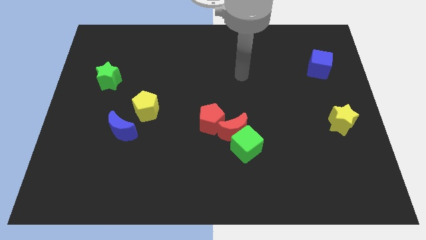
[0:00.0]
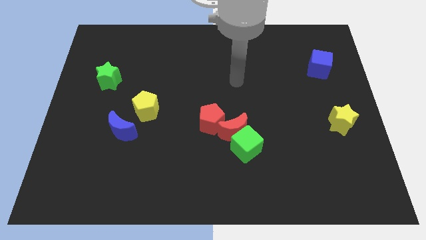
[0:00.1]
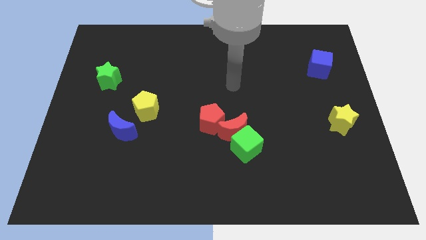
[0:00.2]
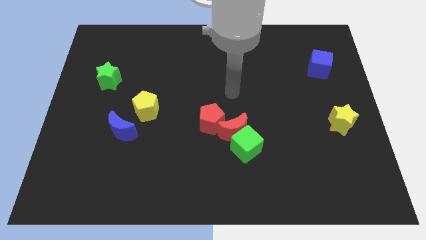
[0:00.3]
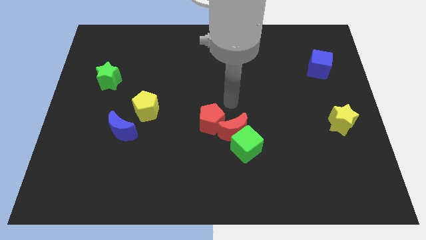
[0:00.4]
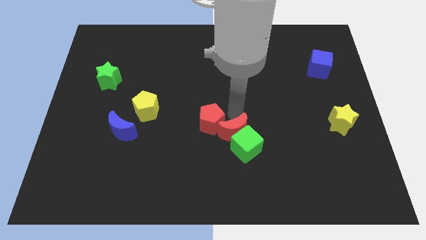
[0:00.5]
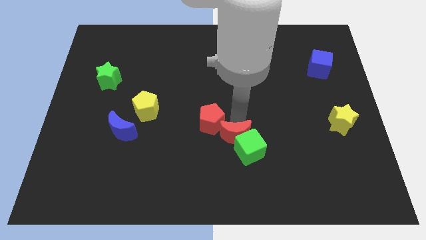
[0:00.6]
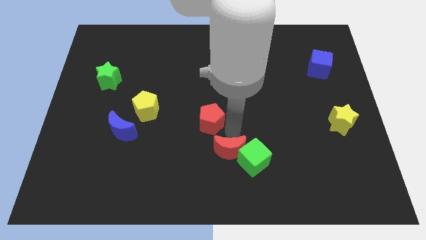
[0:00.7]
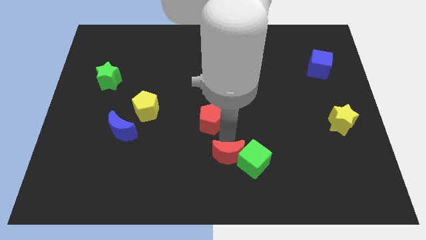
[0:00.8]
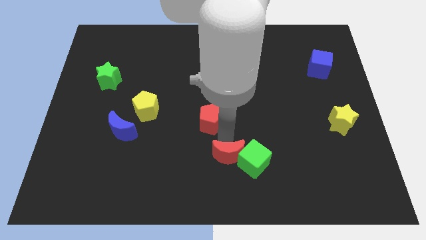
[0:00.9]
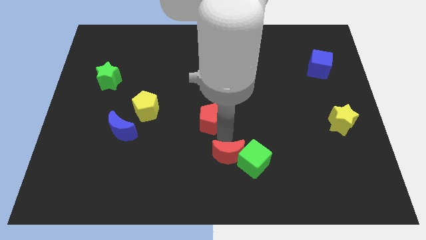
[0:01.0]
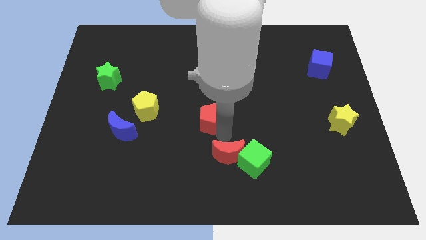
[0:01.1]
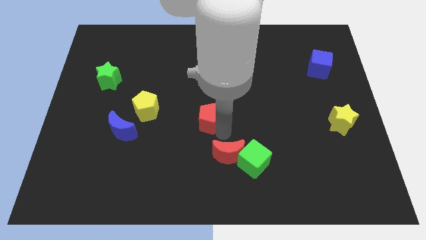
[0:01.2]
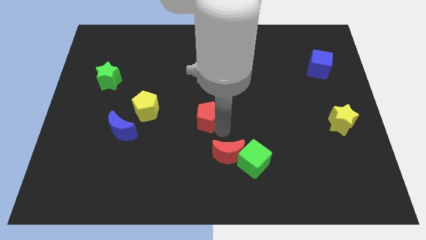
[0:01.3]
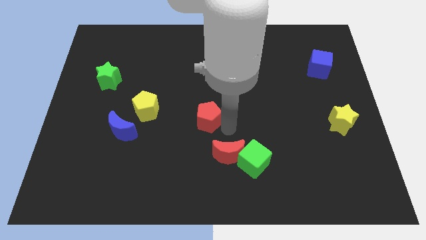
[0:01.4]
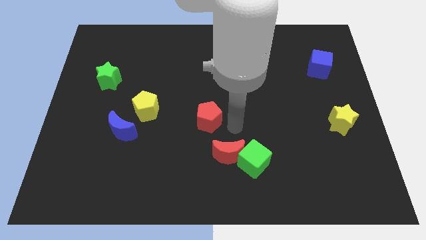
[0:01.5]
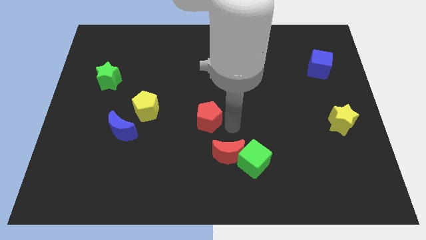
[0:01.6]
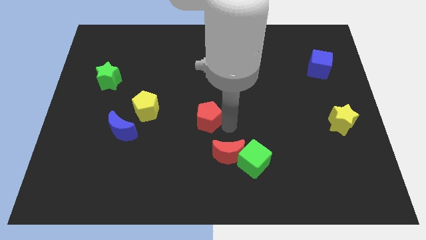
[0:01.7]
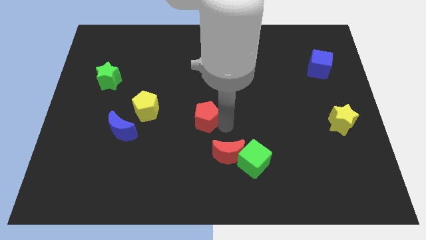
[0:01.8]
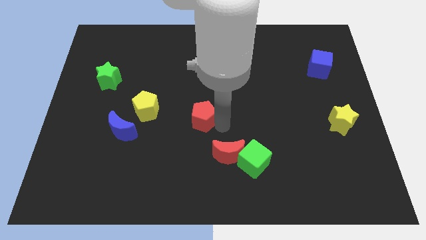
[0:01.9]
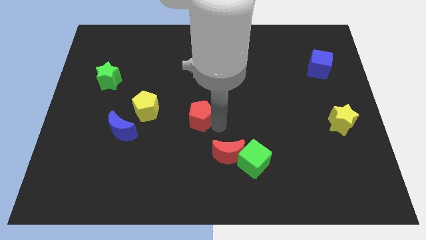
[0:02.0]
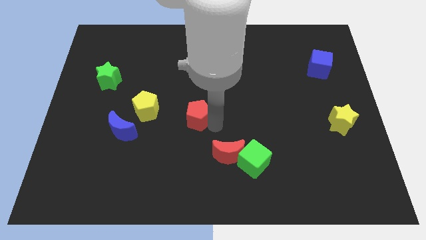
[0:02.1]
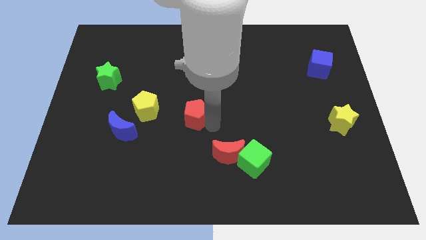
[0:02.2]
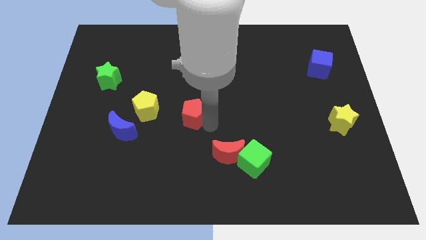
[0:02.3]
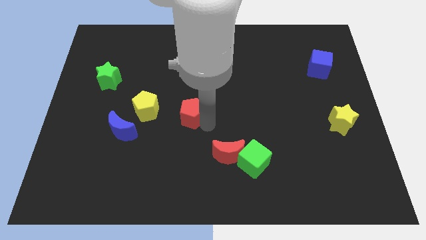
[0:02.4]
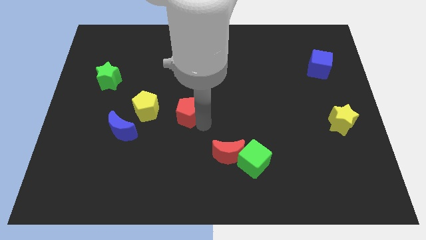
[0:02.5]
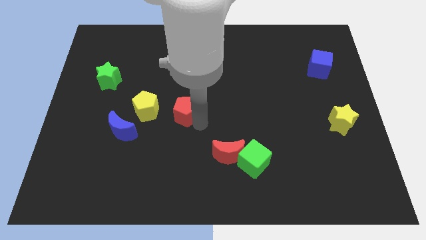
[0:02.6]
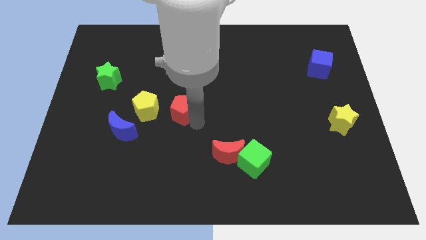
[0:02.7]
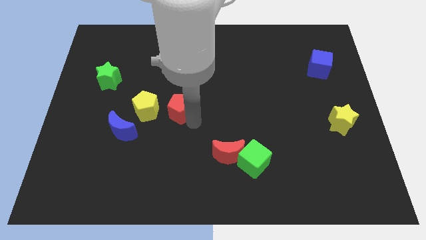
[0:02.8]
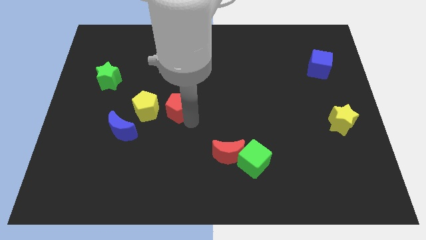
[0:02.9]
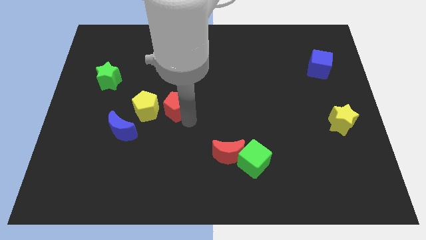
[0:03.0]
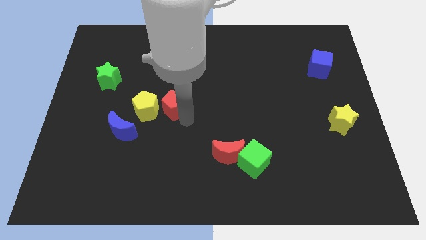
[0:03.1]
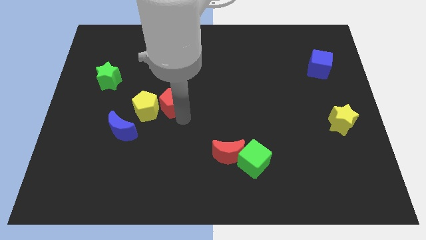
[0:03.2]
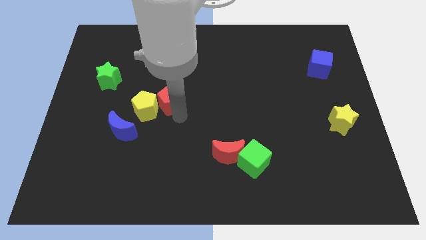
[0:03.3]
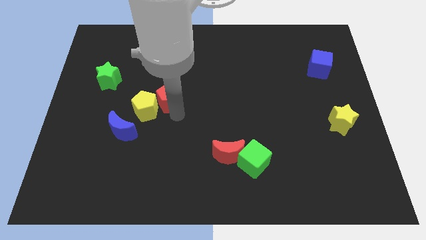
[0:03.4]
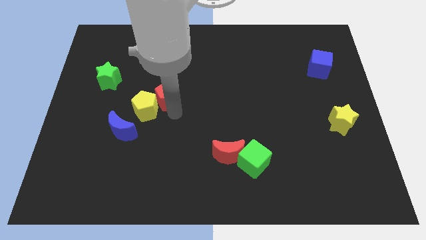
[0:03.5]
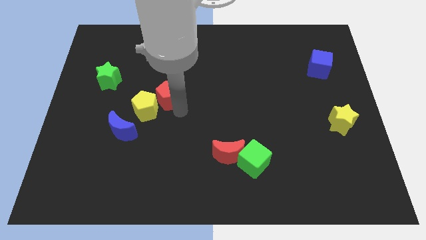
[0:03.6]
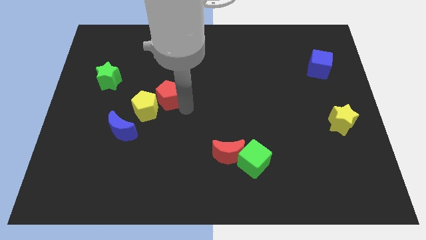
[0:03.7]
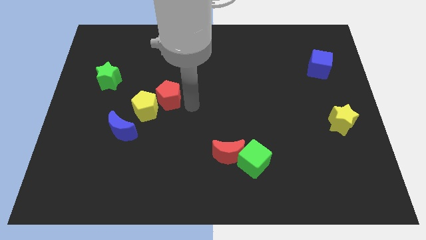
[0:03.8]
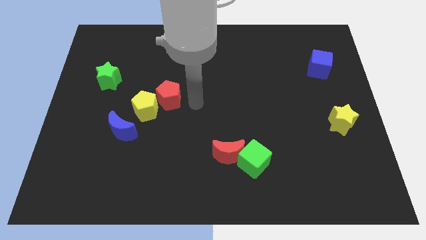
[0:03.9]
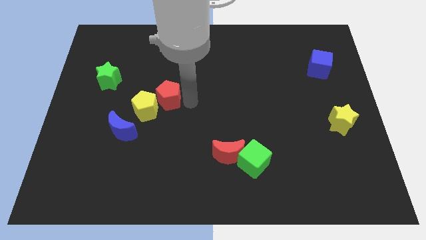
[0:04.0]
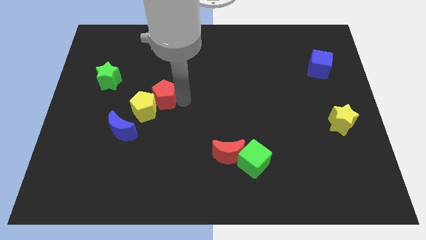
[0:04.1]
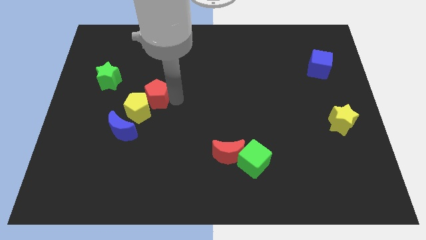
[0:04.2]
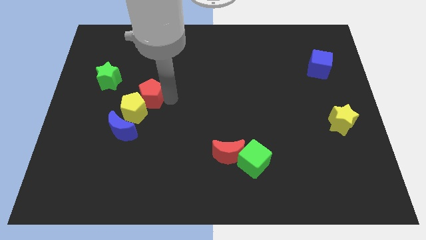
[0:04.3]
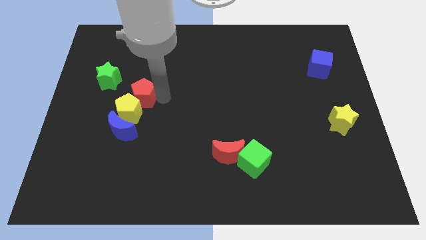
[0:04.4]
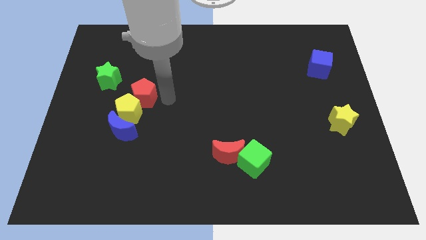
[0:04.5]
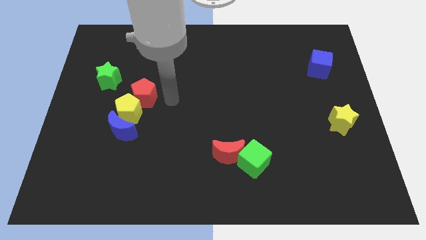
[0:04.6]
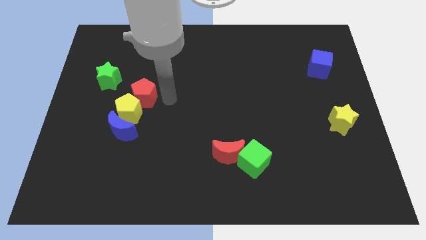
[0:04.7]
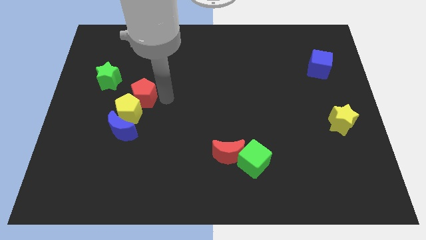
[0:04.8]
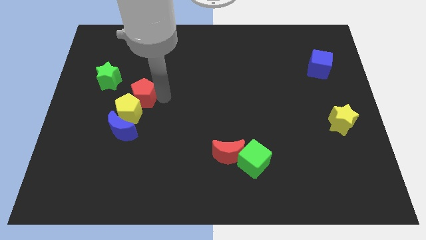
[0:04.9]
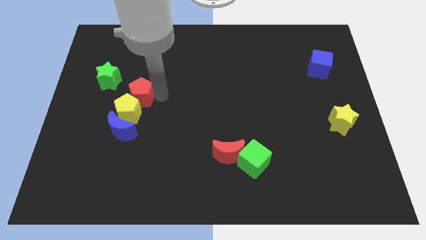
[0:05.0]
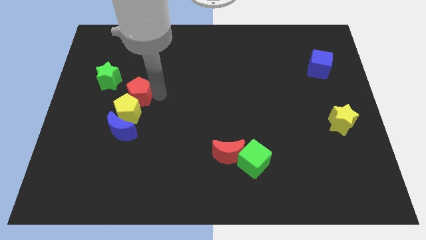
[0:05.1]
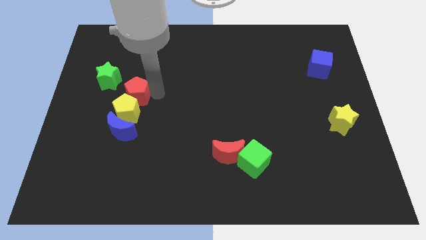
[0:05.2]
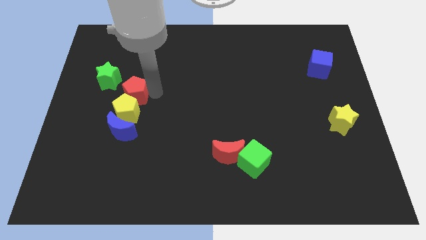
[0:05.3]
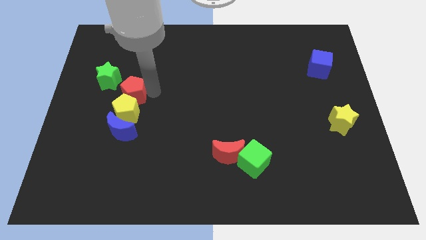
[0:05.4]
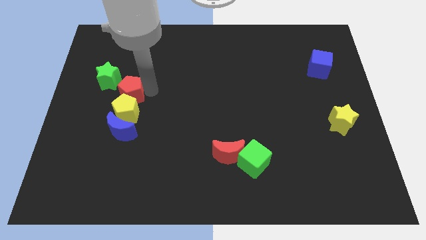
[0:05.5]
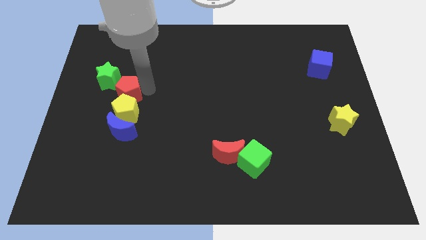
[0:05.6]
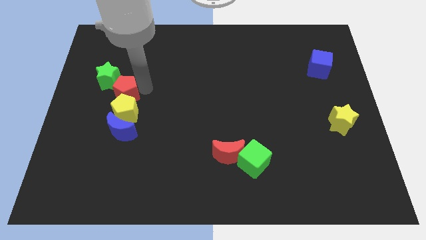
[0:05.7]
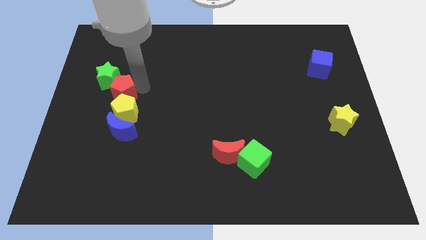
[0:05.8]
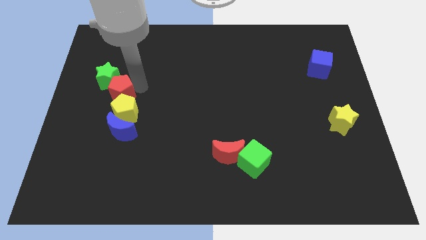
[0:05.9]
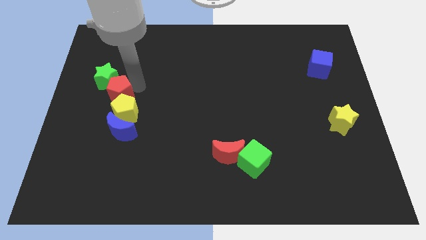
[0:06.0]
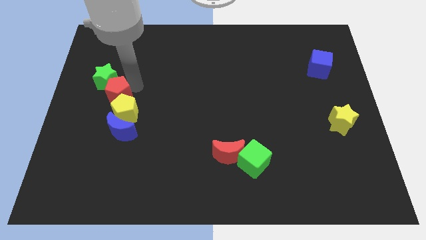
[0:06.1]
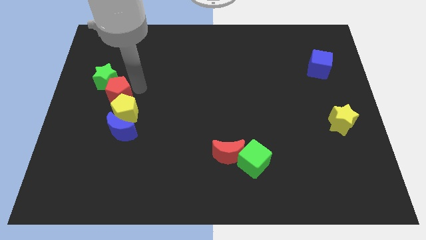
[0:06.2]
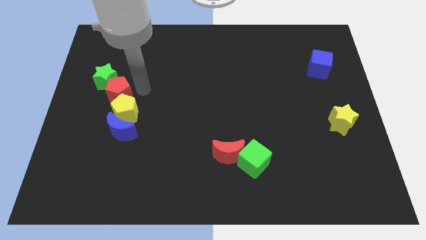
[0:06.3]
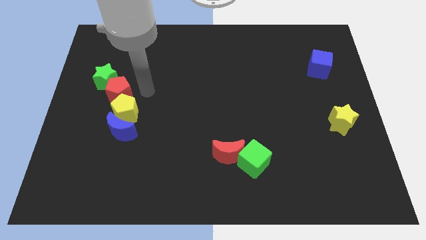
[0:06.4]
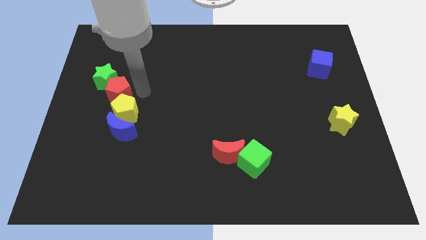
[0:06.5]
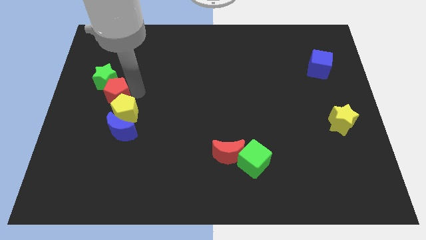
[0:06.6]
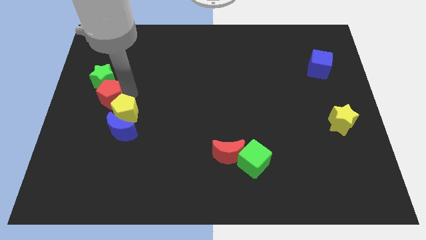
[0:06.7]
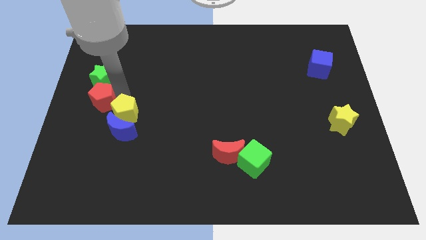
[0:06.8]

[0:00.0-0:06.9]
put the red pentagon to the center left
